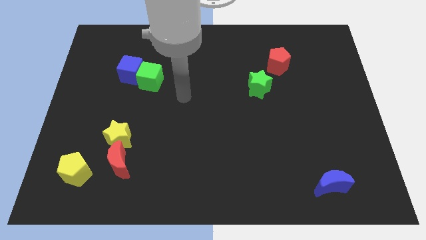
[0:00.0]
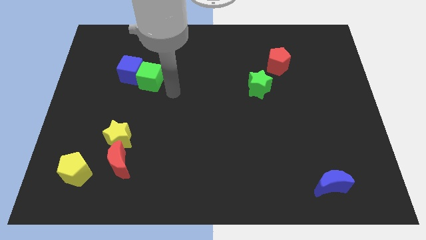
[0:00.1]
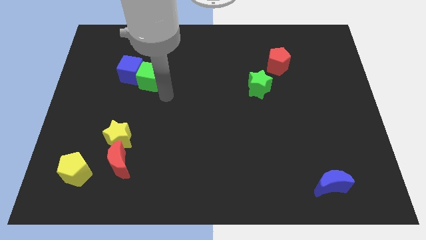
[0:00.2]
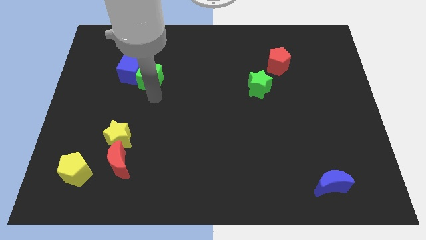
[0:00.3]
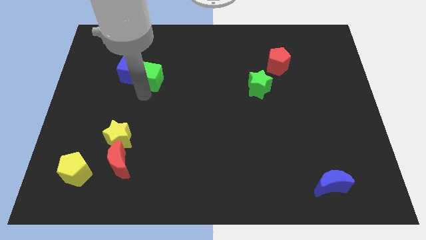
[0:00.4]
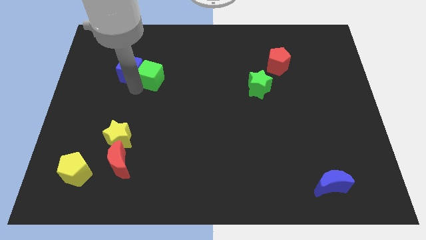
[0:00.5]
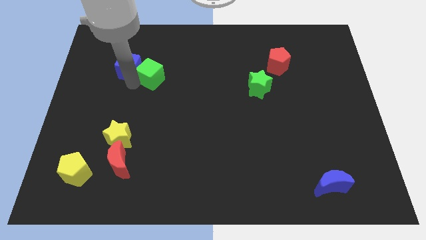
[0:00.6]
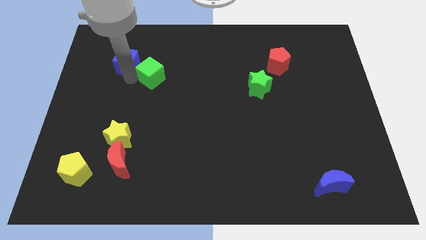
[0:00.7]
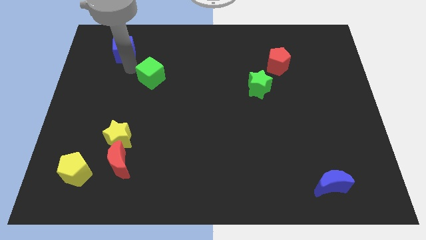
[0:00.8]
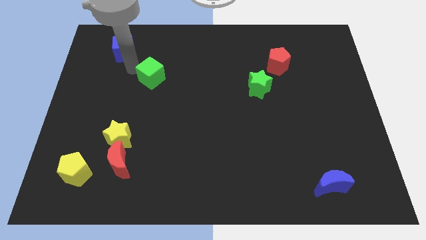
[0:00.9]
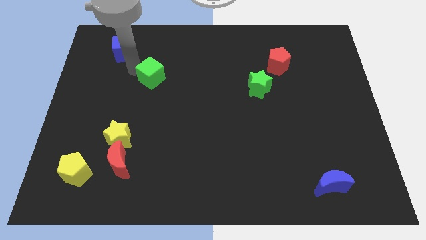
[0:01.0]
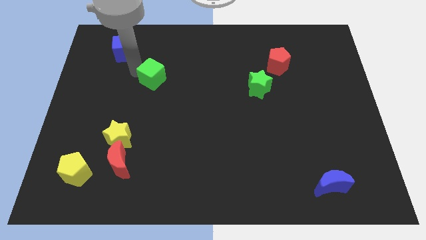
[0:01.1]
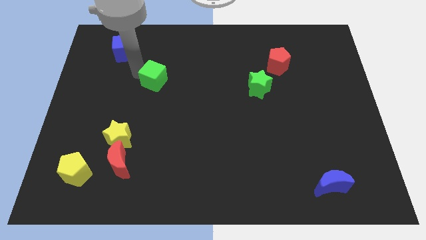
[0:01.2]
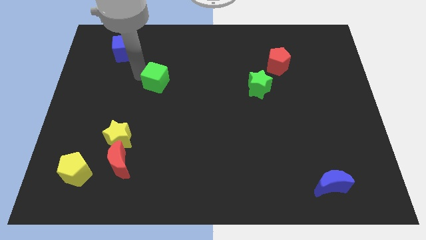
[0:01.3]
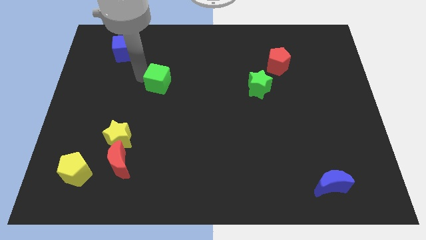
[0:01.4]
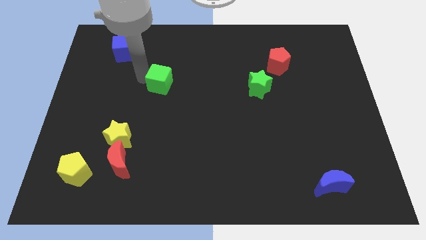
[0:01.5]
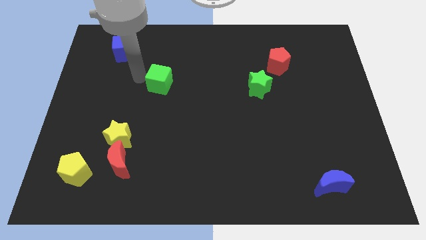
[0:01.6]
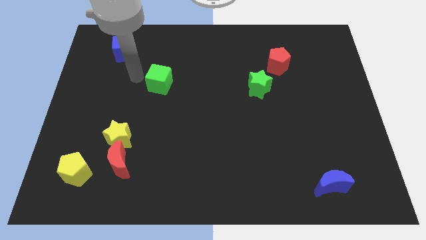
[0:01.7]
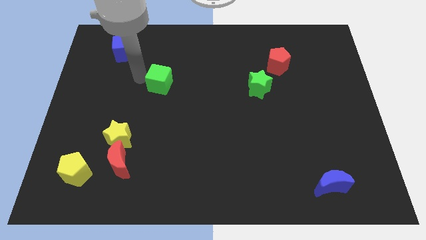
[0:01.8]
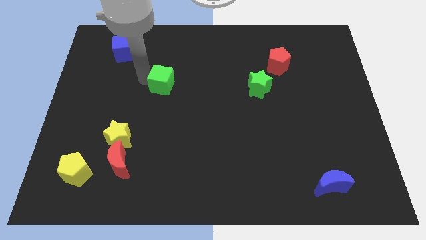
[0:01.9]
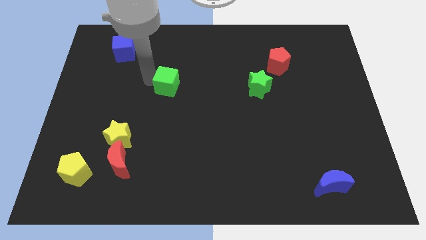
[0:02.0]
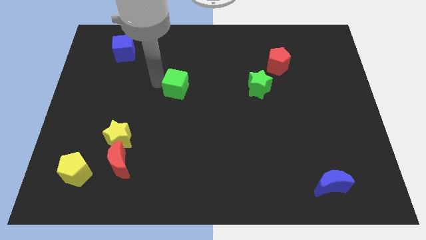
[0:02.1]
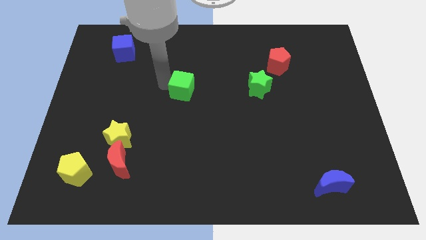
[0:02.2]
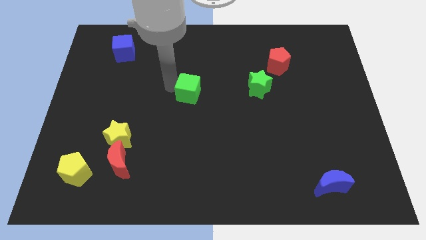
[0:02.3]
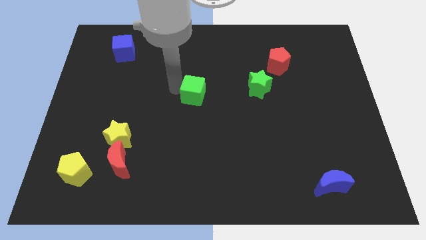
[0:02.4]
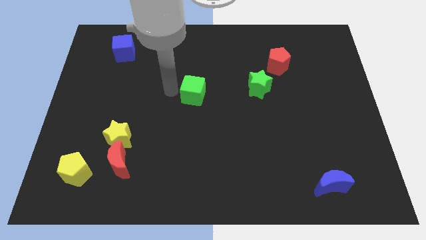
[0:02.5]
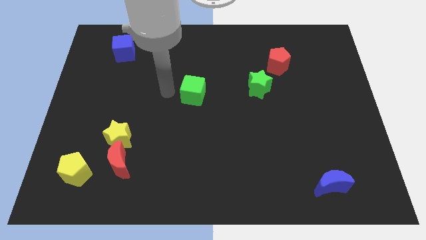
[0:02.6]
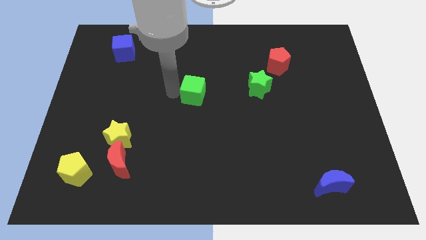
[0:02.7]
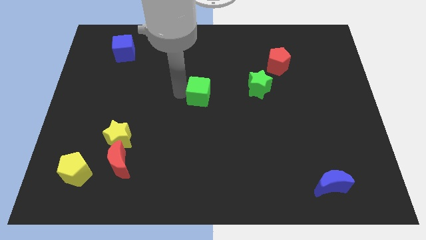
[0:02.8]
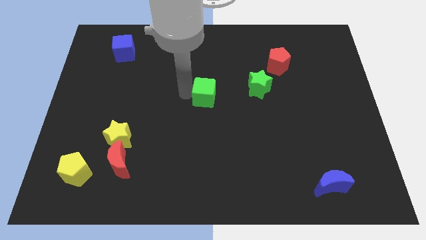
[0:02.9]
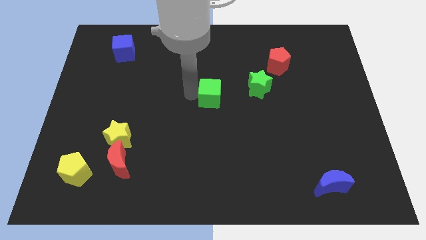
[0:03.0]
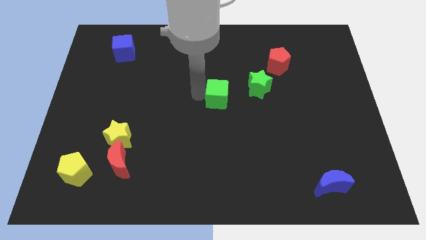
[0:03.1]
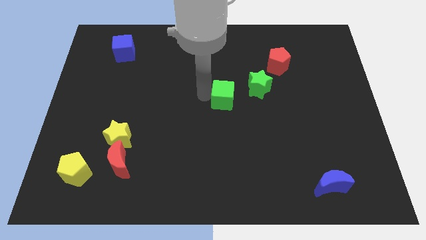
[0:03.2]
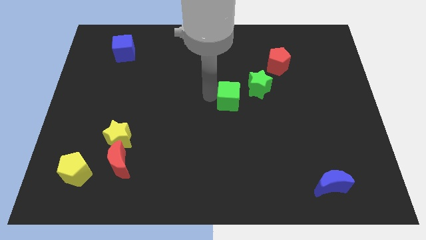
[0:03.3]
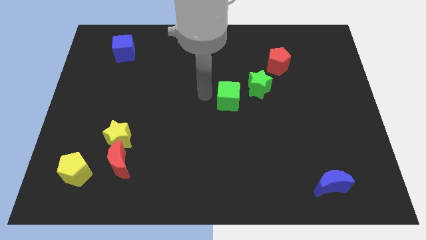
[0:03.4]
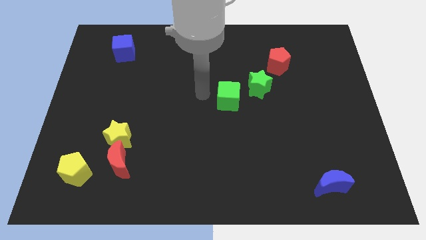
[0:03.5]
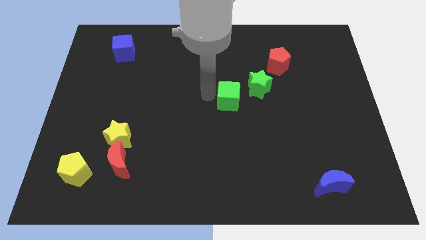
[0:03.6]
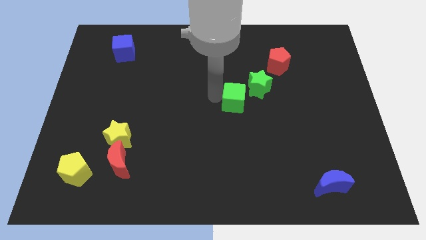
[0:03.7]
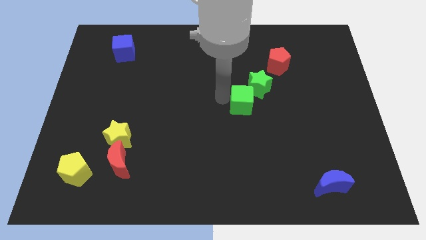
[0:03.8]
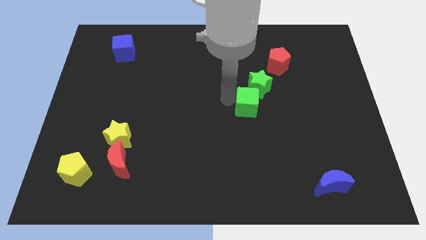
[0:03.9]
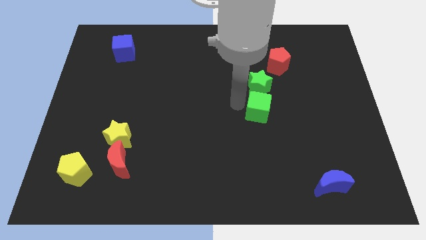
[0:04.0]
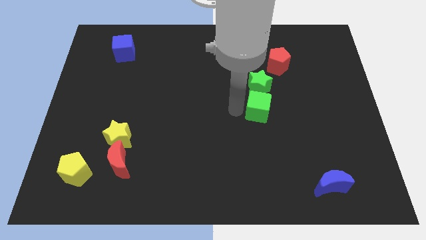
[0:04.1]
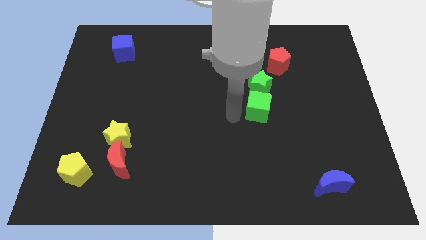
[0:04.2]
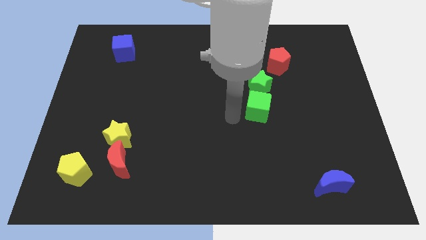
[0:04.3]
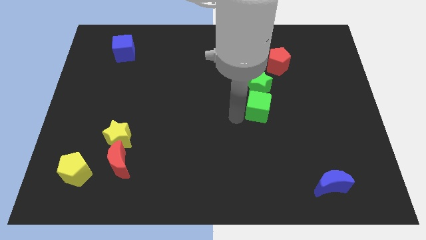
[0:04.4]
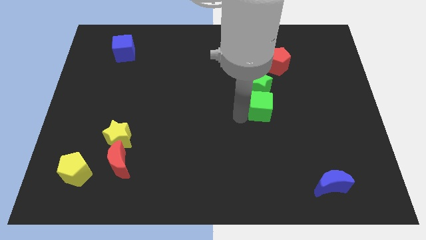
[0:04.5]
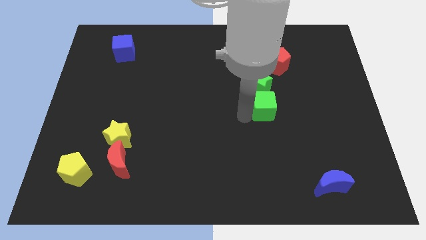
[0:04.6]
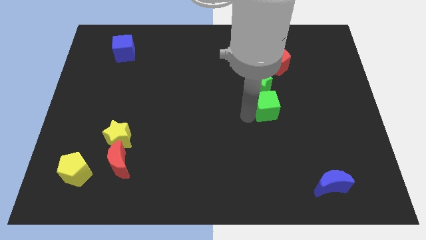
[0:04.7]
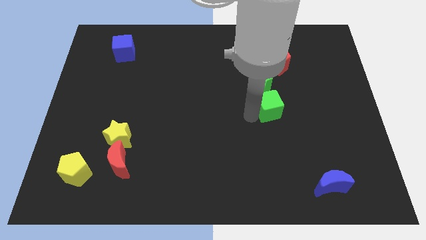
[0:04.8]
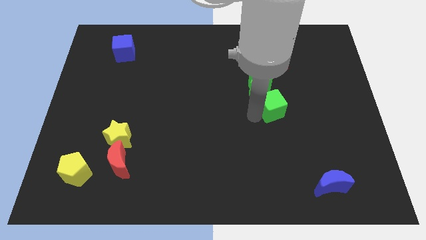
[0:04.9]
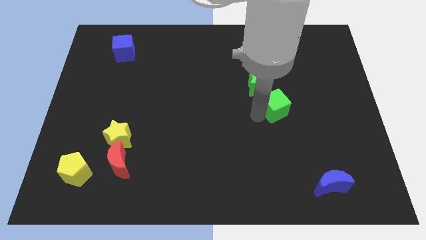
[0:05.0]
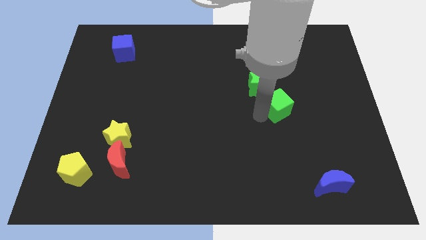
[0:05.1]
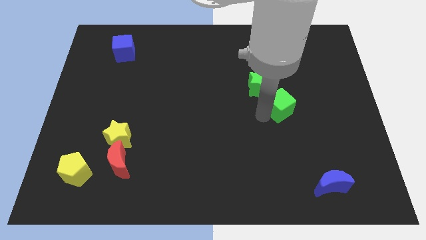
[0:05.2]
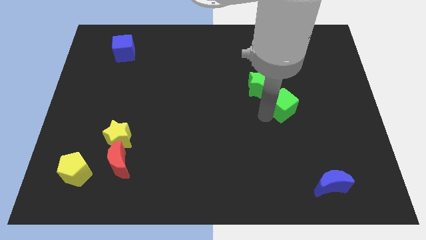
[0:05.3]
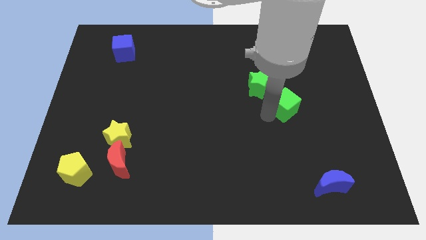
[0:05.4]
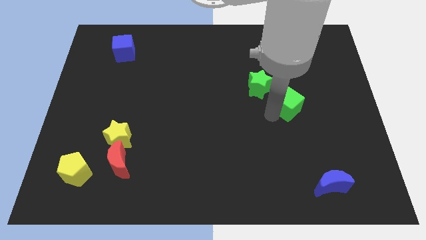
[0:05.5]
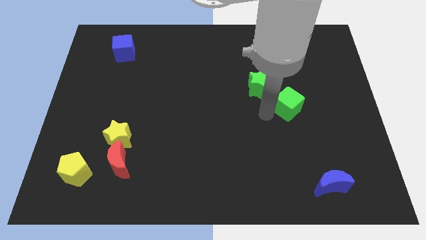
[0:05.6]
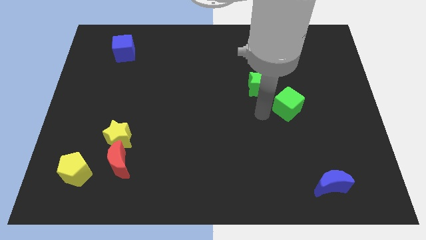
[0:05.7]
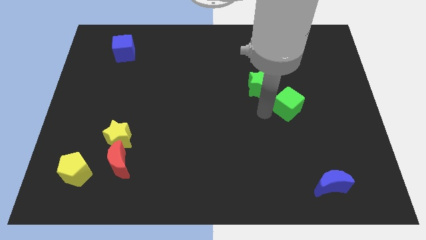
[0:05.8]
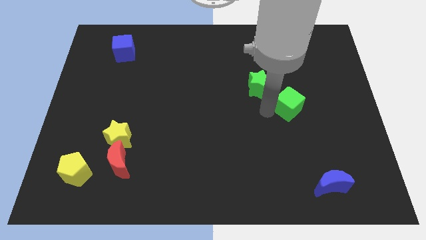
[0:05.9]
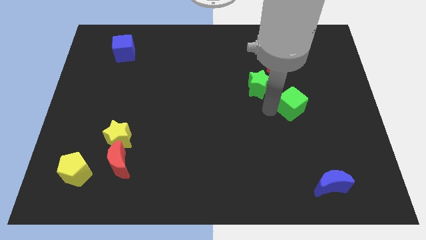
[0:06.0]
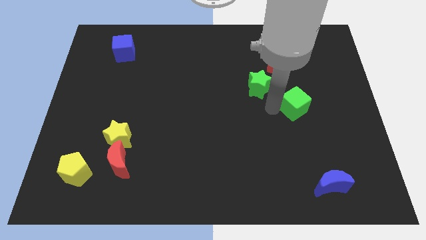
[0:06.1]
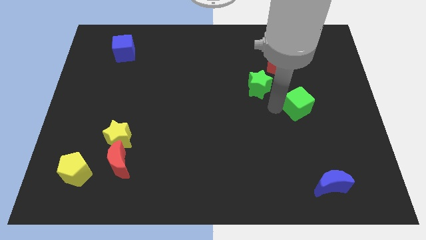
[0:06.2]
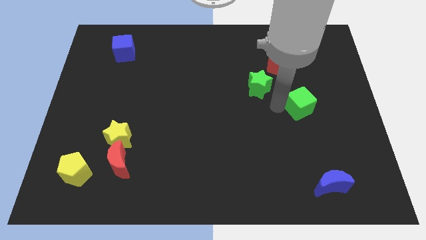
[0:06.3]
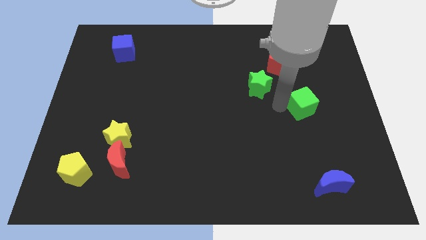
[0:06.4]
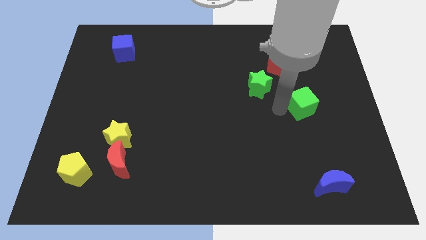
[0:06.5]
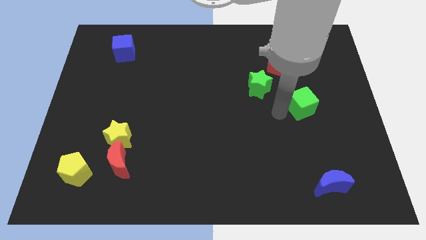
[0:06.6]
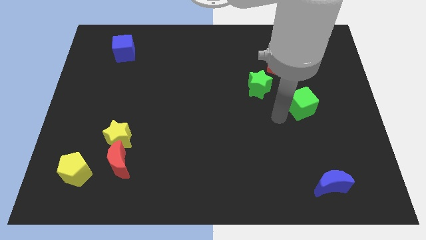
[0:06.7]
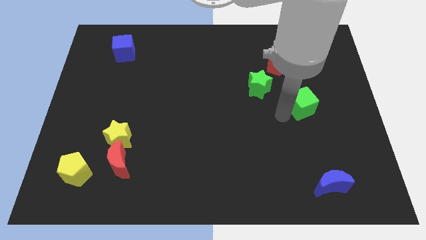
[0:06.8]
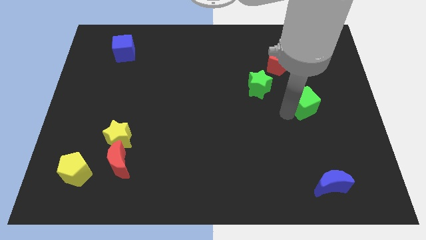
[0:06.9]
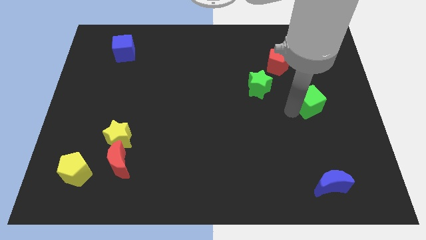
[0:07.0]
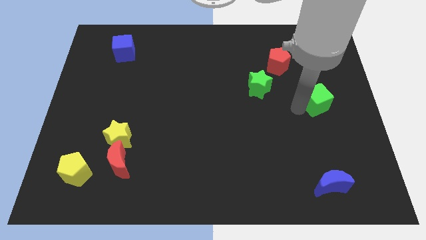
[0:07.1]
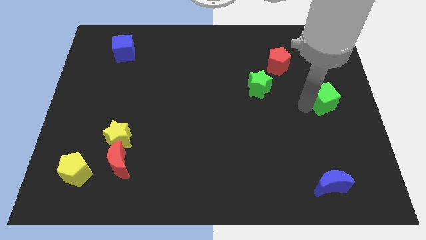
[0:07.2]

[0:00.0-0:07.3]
put the green cube to the right side of the board

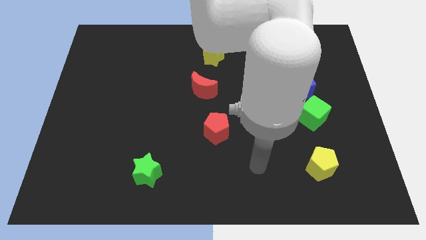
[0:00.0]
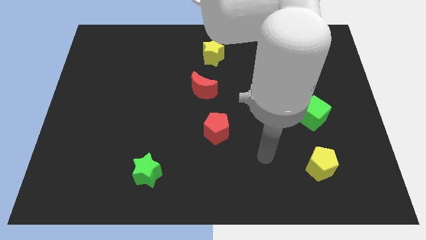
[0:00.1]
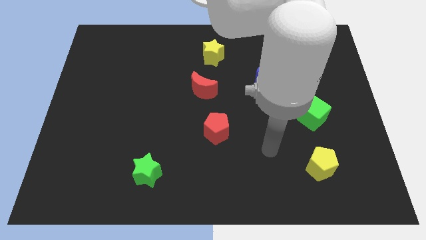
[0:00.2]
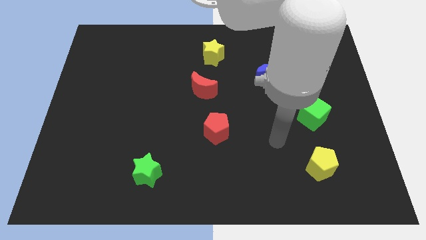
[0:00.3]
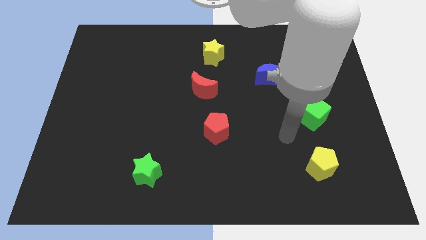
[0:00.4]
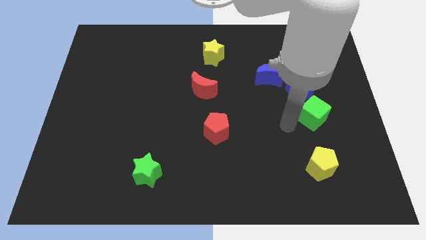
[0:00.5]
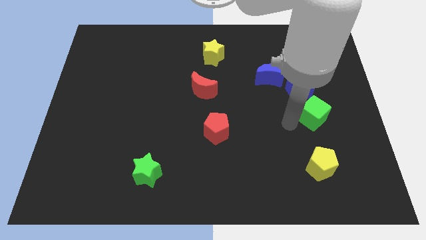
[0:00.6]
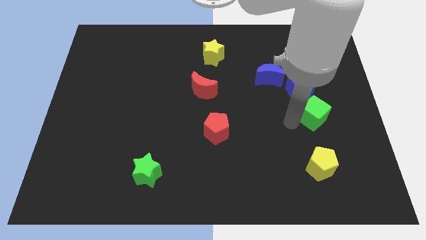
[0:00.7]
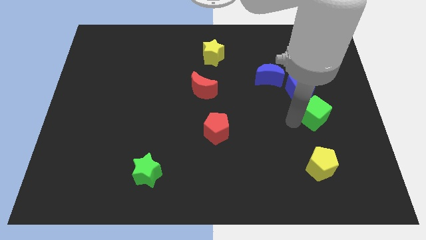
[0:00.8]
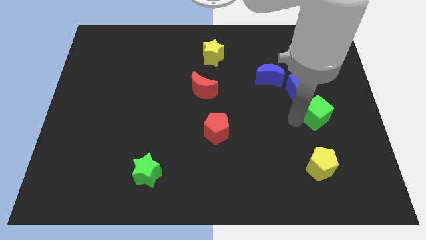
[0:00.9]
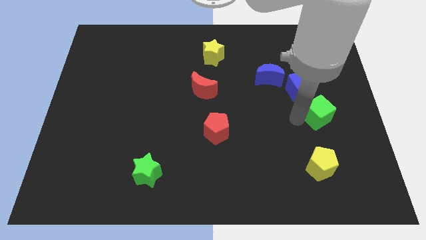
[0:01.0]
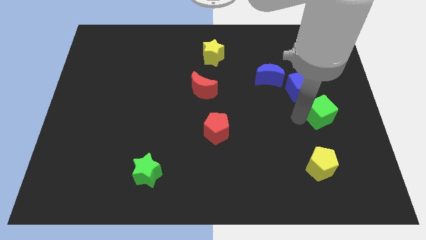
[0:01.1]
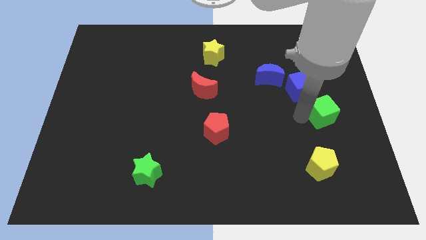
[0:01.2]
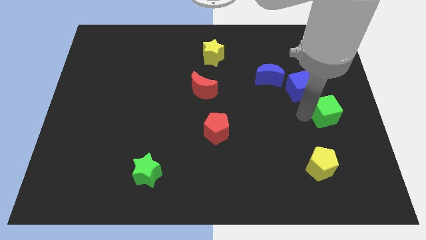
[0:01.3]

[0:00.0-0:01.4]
push the green cube to the center right
